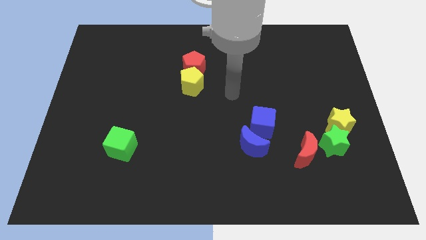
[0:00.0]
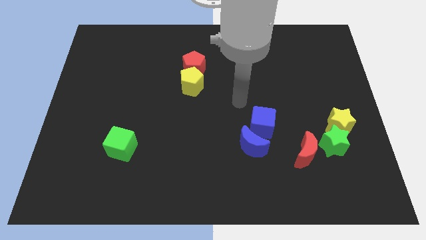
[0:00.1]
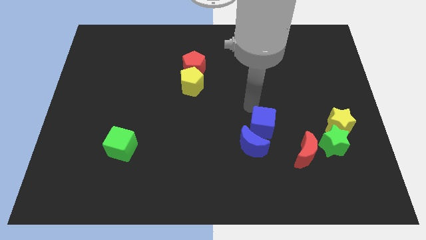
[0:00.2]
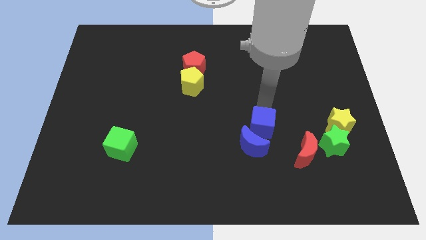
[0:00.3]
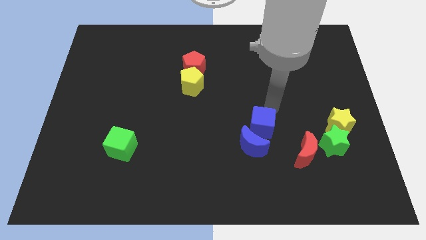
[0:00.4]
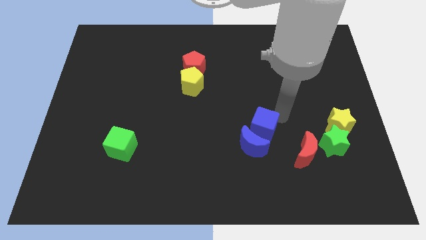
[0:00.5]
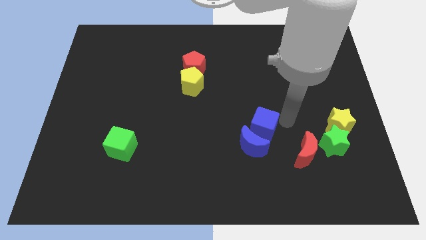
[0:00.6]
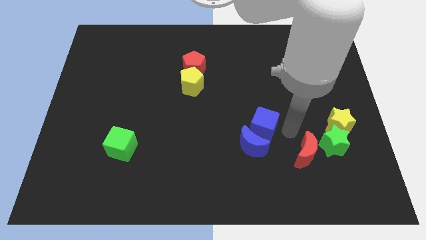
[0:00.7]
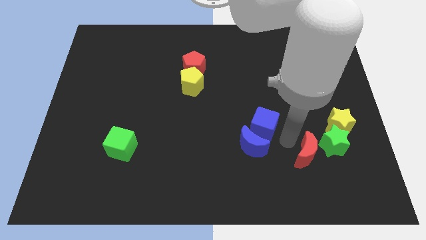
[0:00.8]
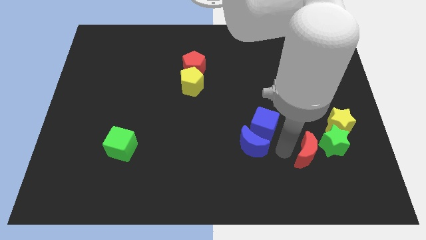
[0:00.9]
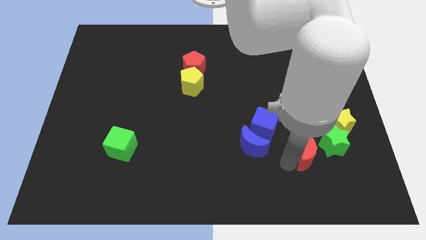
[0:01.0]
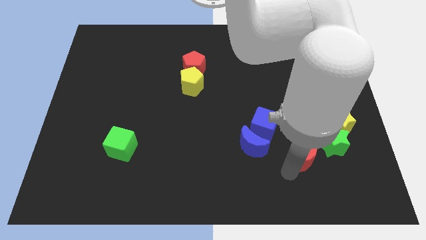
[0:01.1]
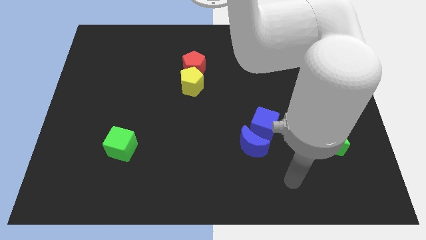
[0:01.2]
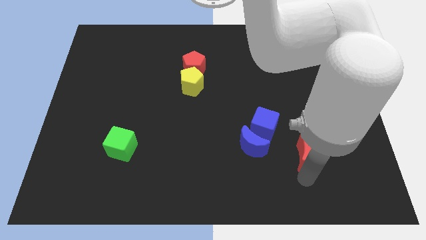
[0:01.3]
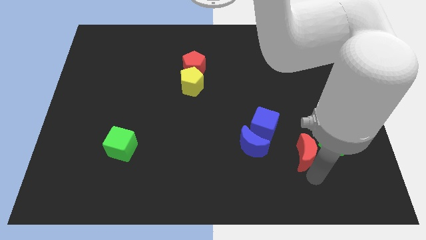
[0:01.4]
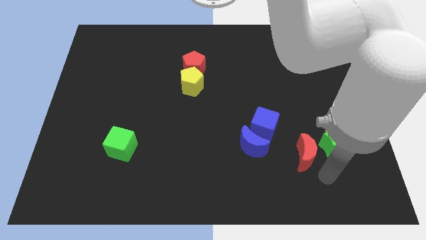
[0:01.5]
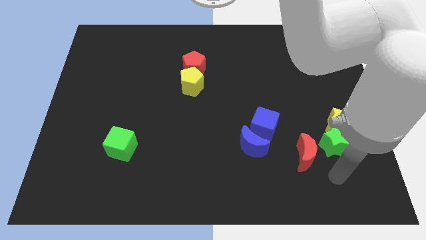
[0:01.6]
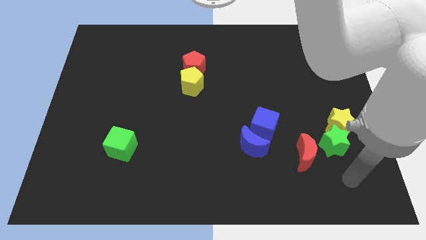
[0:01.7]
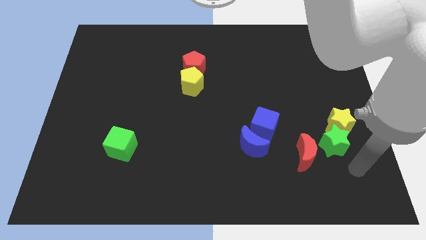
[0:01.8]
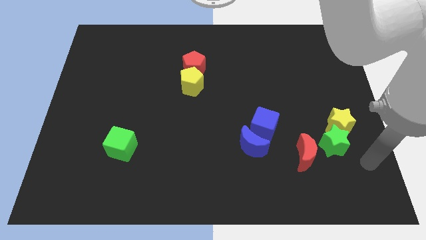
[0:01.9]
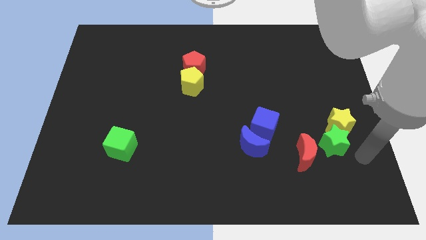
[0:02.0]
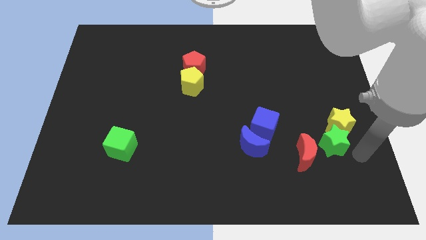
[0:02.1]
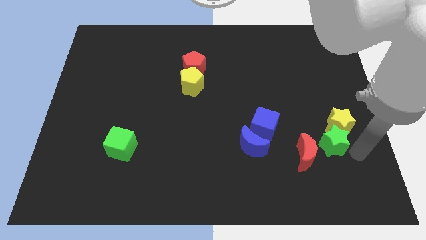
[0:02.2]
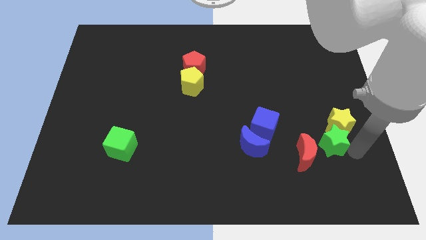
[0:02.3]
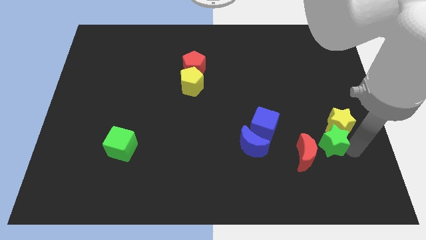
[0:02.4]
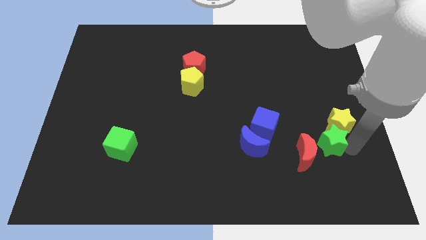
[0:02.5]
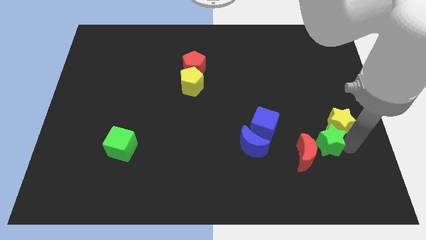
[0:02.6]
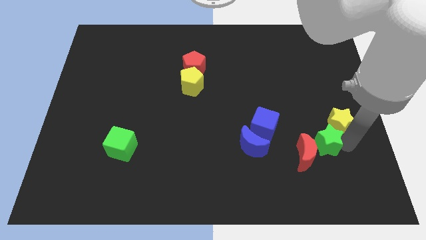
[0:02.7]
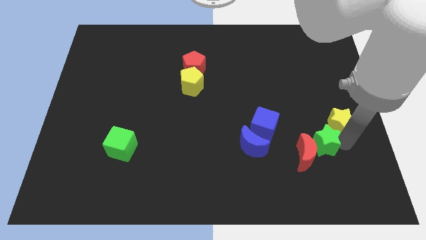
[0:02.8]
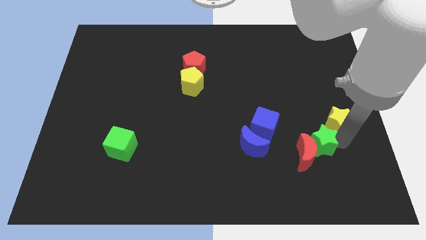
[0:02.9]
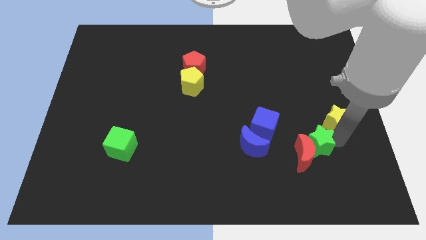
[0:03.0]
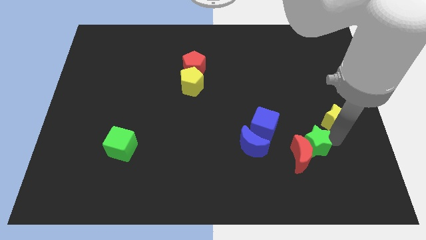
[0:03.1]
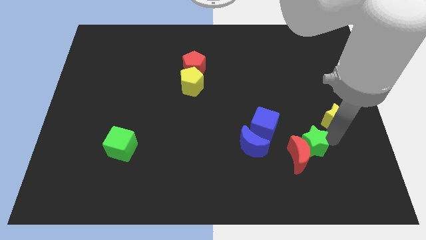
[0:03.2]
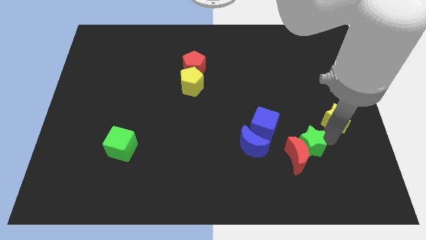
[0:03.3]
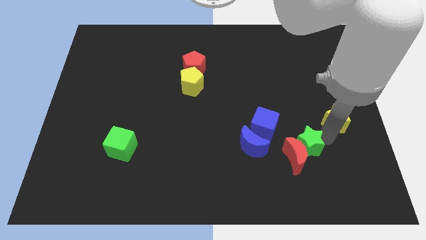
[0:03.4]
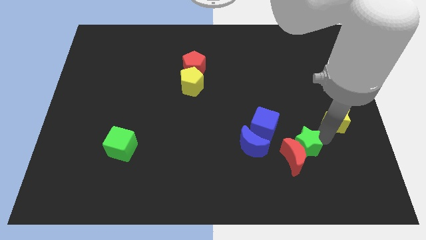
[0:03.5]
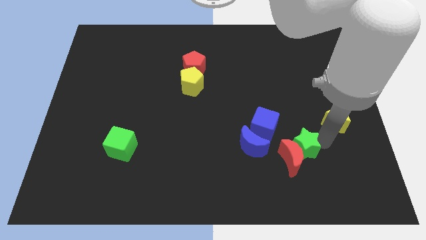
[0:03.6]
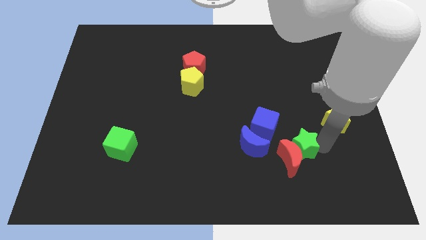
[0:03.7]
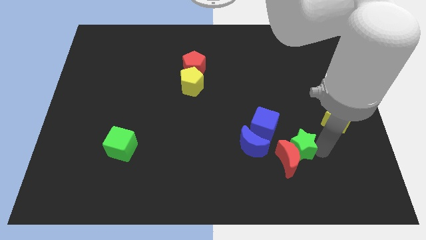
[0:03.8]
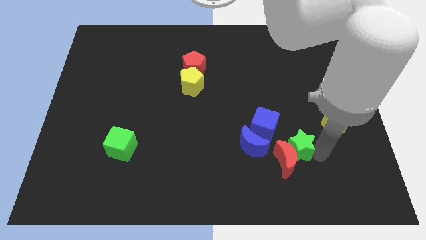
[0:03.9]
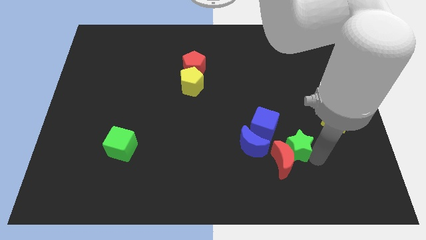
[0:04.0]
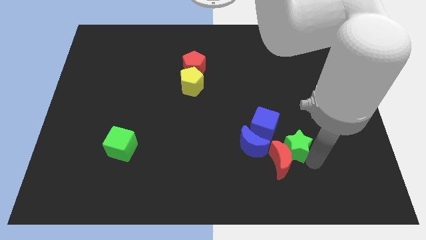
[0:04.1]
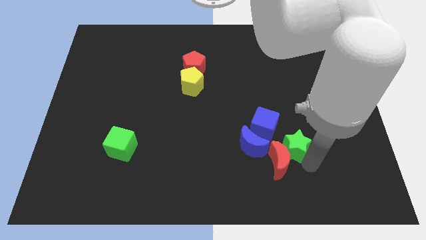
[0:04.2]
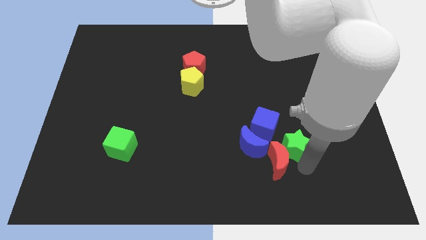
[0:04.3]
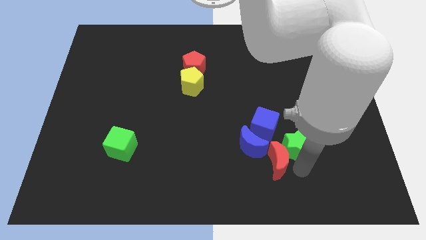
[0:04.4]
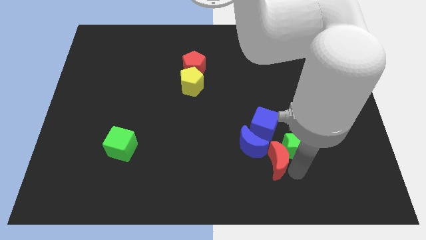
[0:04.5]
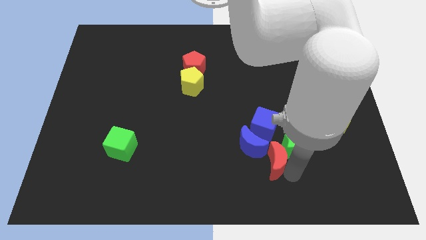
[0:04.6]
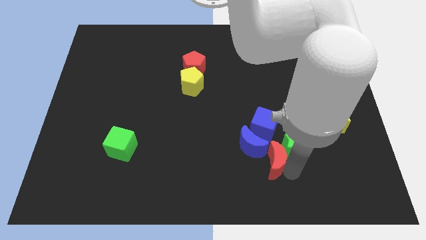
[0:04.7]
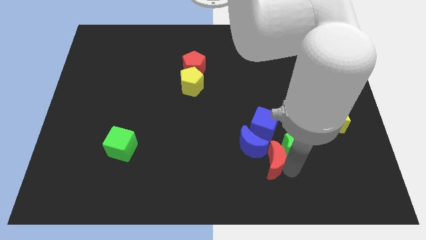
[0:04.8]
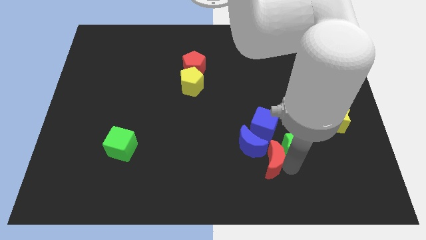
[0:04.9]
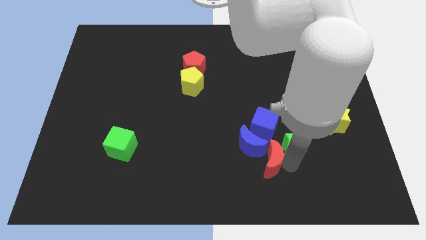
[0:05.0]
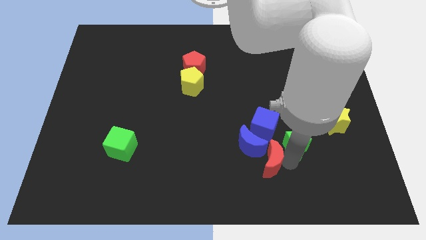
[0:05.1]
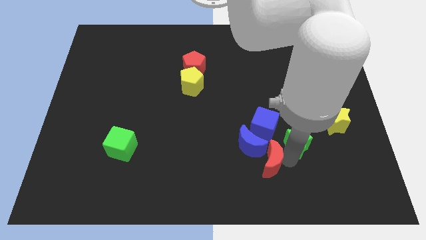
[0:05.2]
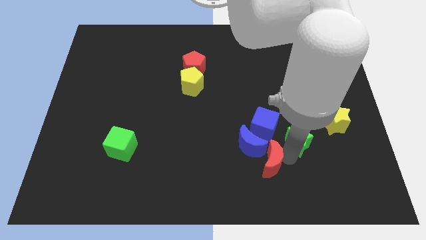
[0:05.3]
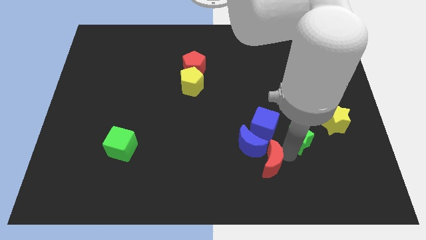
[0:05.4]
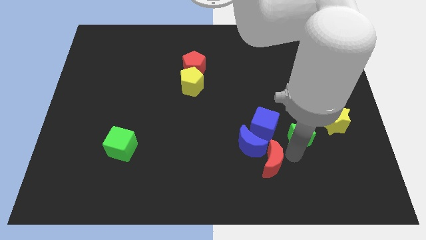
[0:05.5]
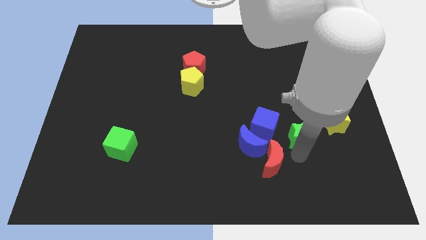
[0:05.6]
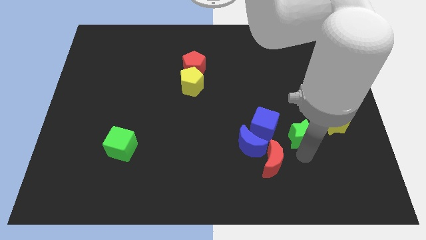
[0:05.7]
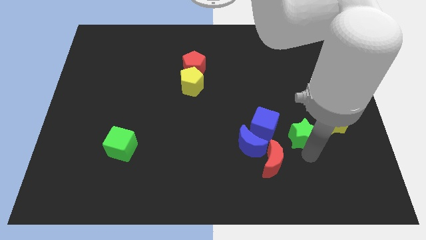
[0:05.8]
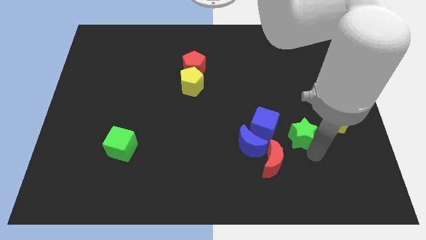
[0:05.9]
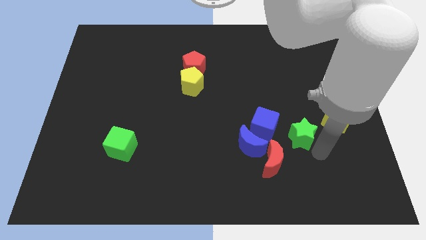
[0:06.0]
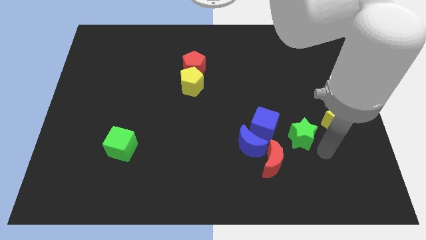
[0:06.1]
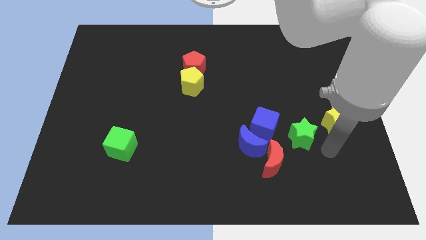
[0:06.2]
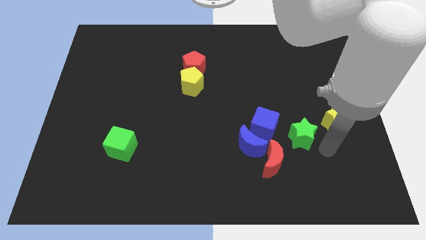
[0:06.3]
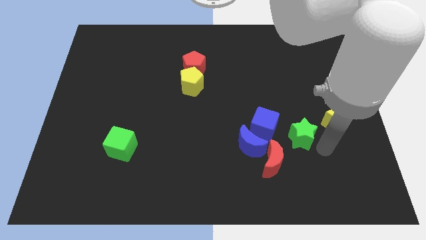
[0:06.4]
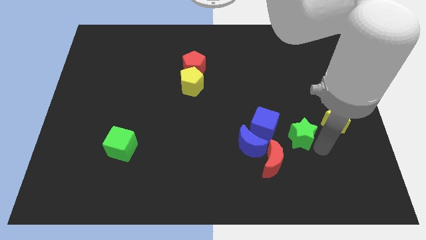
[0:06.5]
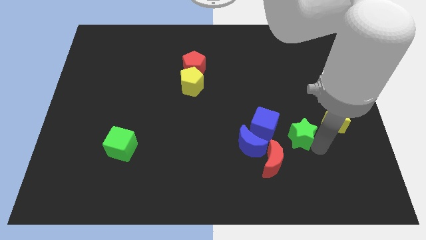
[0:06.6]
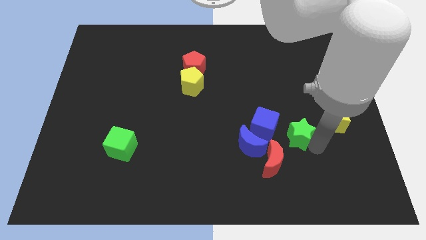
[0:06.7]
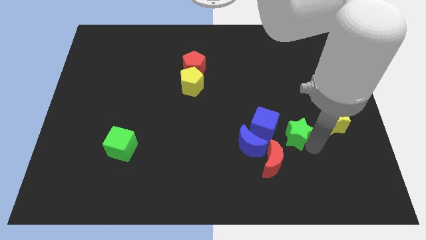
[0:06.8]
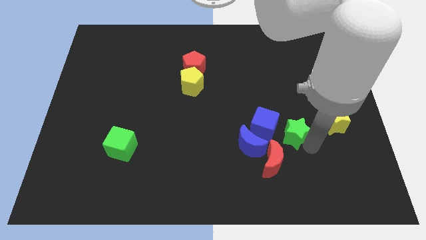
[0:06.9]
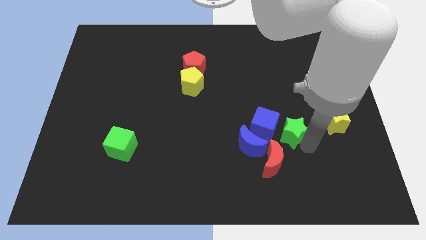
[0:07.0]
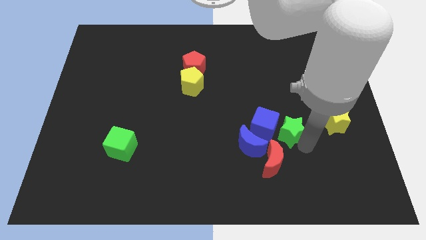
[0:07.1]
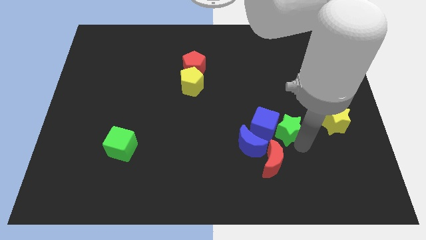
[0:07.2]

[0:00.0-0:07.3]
put the green star to the blue cube
